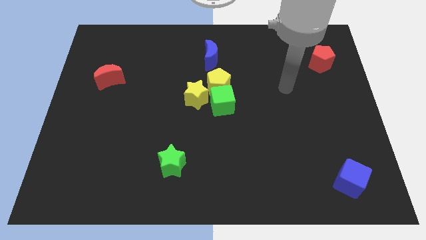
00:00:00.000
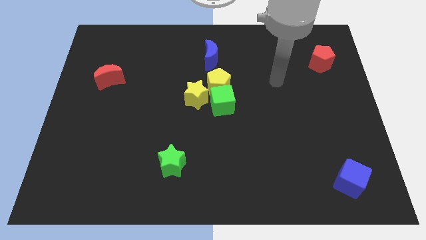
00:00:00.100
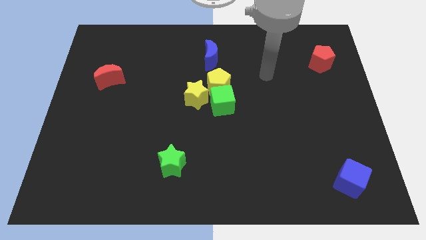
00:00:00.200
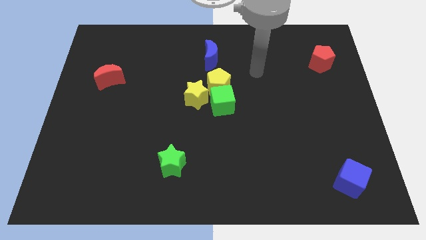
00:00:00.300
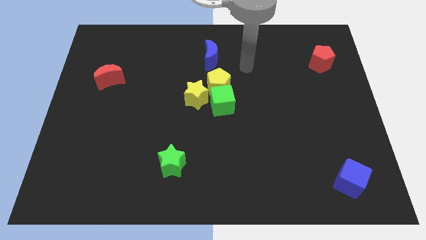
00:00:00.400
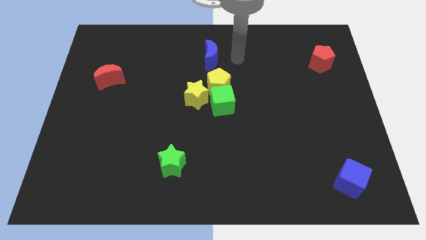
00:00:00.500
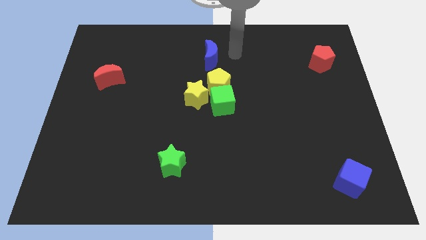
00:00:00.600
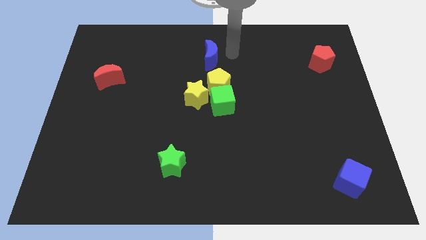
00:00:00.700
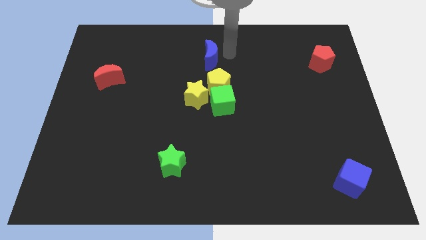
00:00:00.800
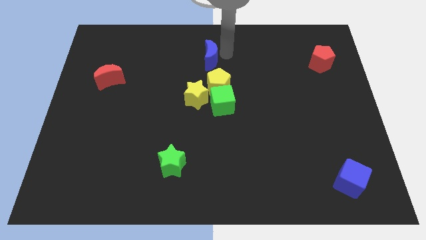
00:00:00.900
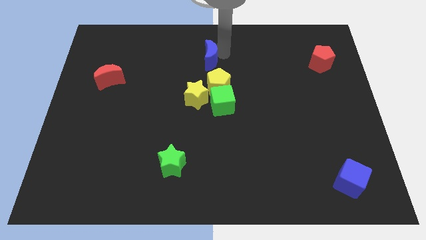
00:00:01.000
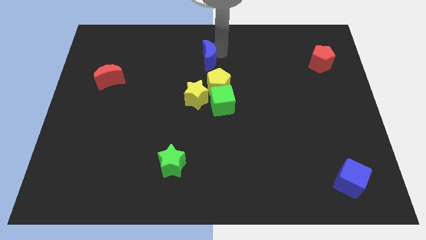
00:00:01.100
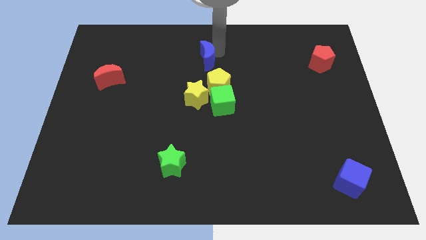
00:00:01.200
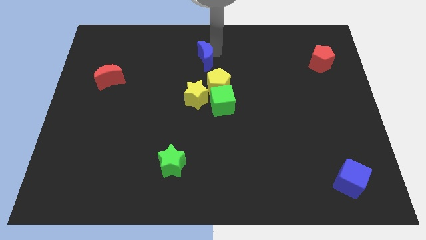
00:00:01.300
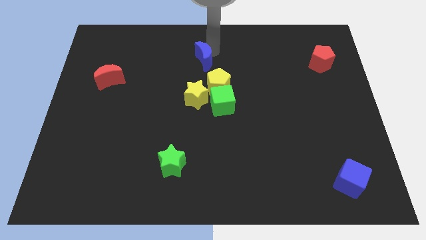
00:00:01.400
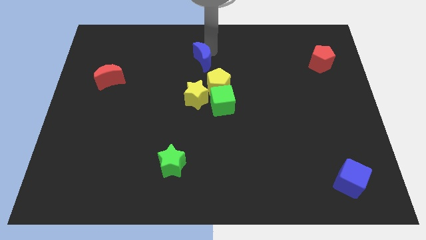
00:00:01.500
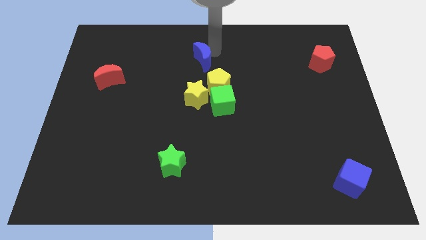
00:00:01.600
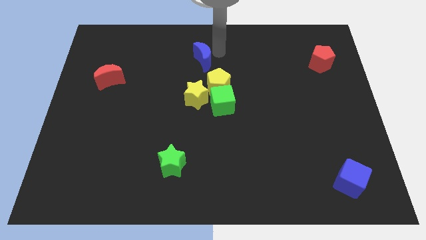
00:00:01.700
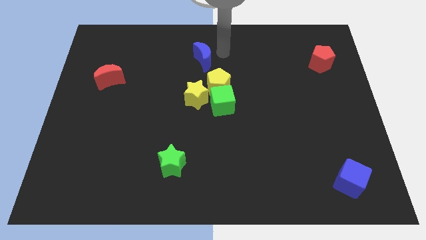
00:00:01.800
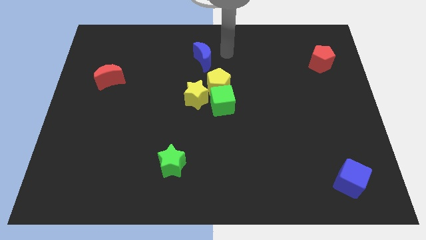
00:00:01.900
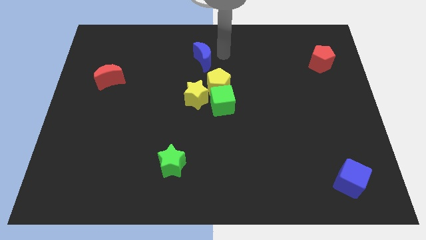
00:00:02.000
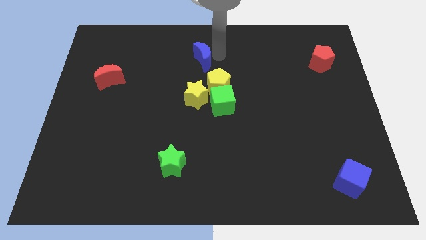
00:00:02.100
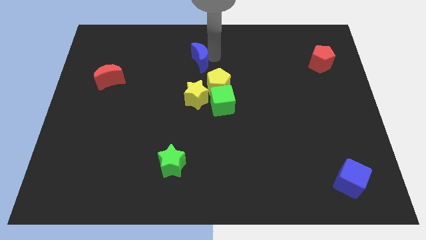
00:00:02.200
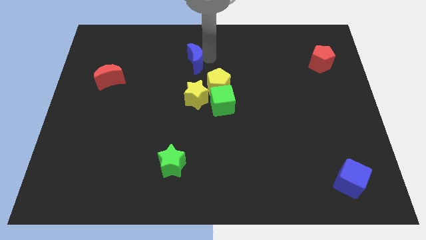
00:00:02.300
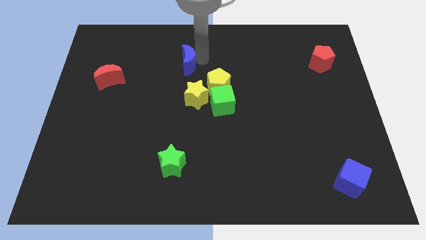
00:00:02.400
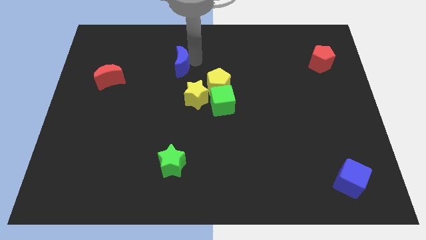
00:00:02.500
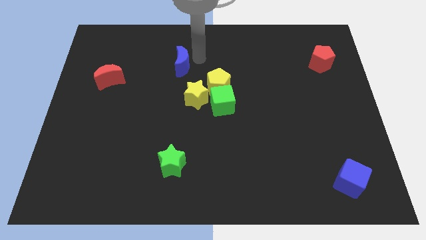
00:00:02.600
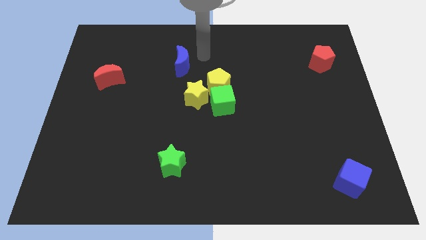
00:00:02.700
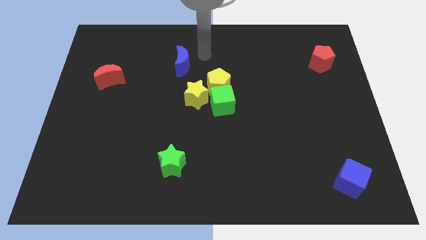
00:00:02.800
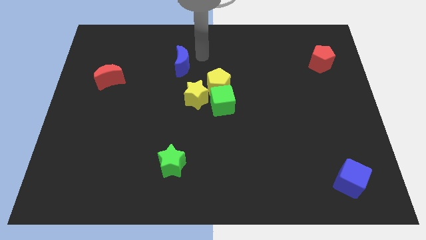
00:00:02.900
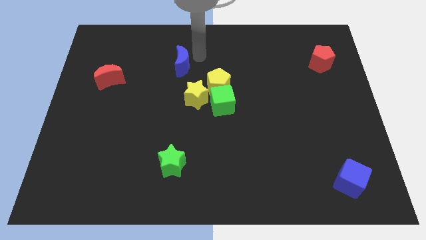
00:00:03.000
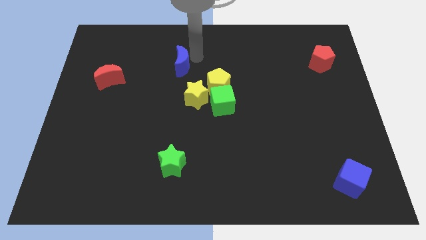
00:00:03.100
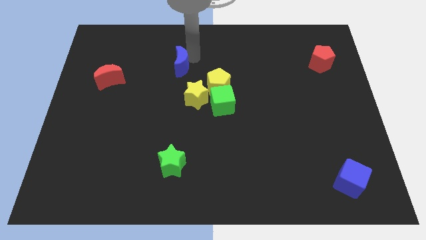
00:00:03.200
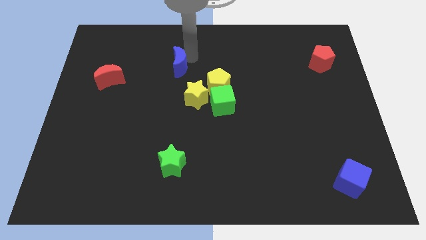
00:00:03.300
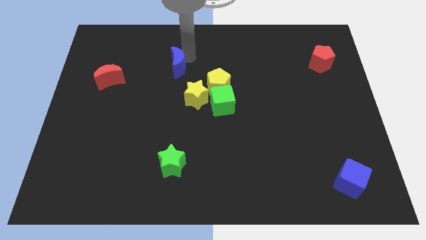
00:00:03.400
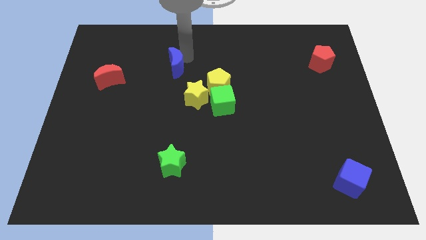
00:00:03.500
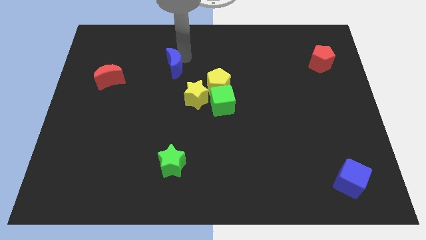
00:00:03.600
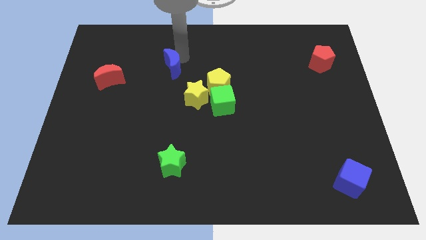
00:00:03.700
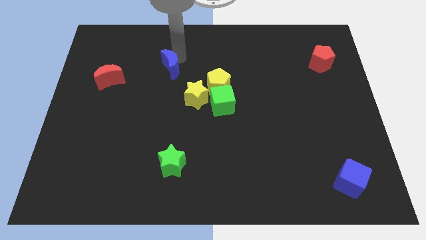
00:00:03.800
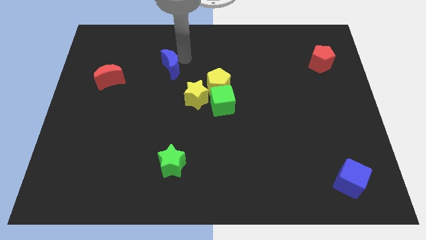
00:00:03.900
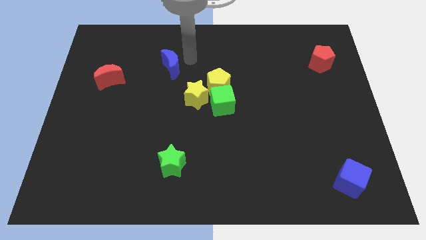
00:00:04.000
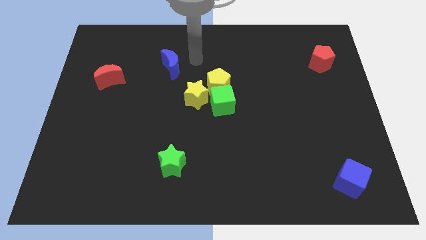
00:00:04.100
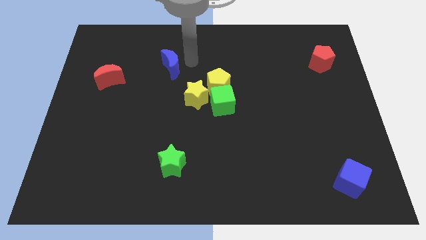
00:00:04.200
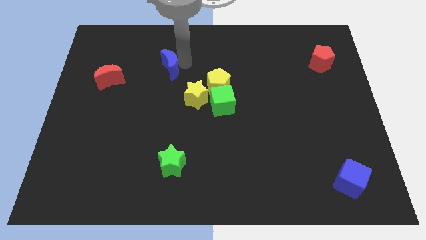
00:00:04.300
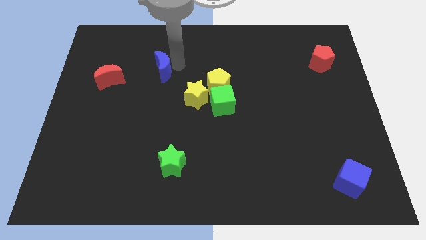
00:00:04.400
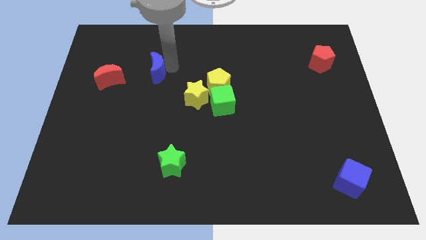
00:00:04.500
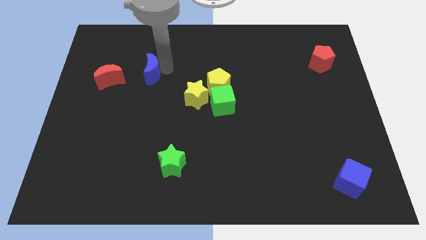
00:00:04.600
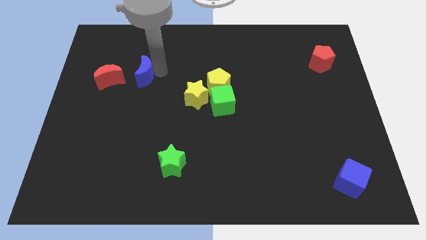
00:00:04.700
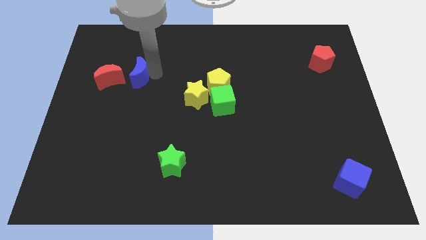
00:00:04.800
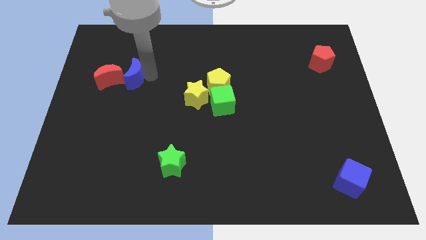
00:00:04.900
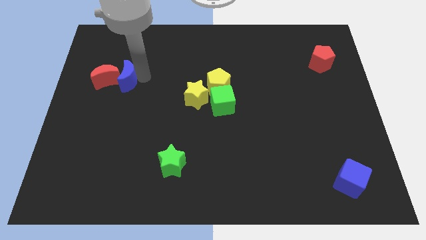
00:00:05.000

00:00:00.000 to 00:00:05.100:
slide the blue moon towards the red moon

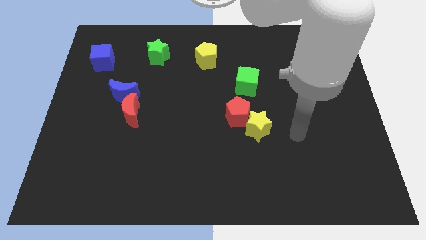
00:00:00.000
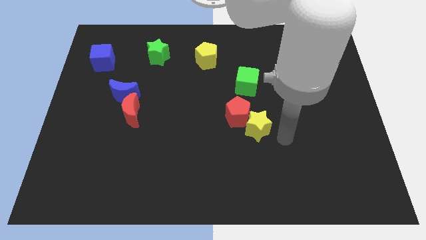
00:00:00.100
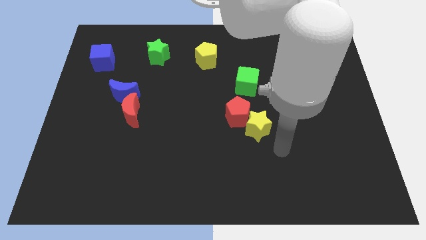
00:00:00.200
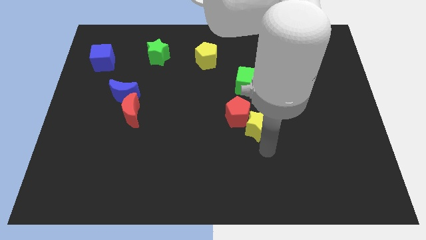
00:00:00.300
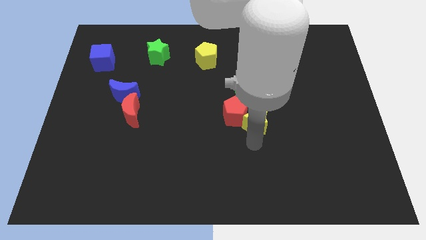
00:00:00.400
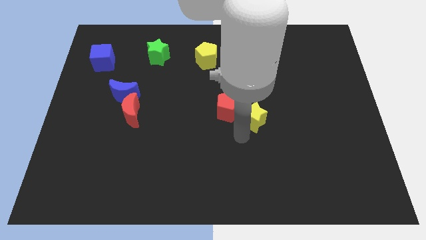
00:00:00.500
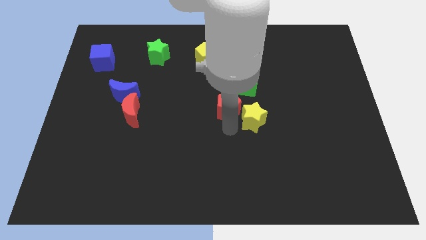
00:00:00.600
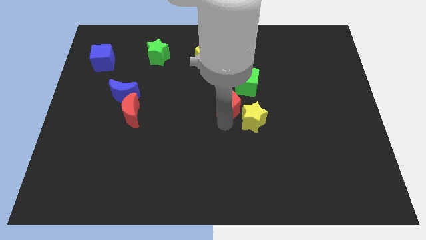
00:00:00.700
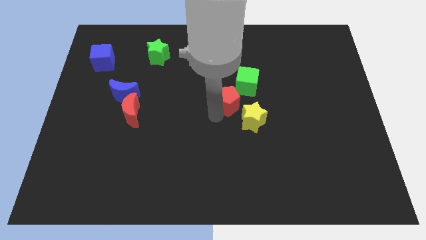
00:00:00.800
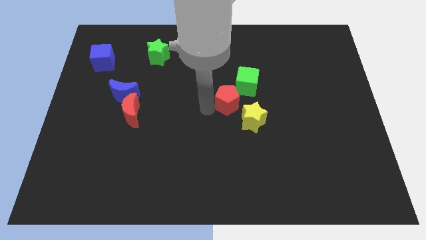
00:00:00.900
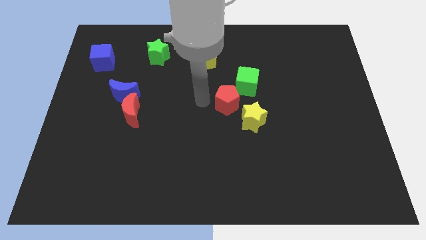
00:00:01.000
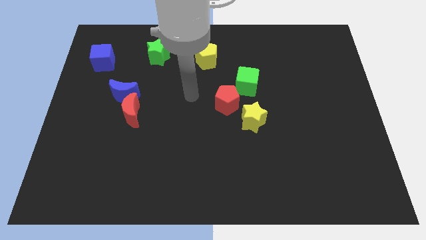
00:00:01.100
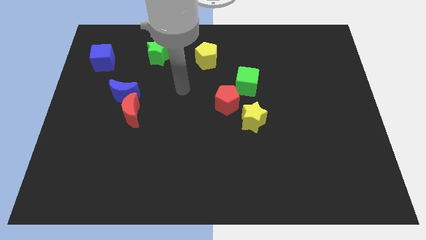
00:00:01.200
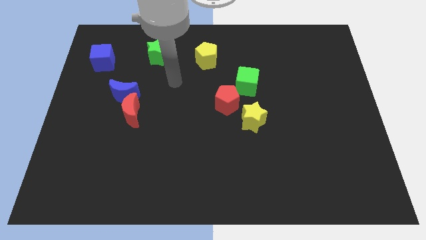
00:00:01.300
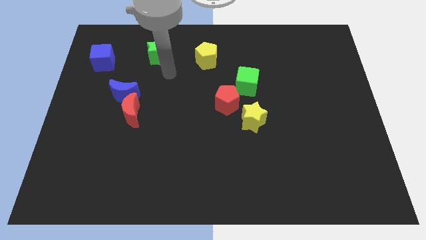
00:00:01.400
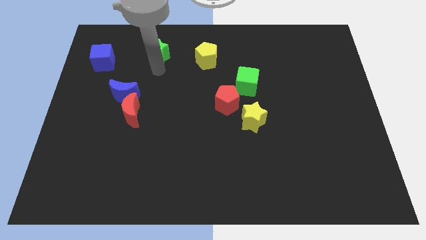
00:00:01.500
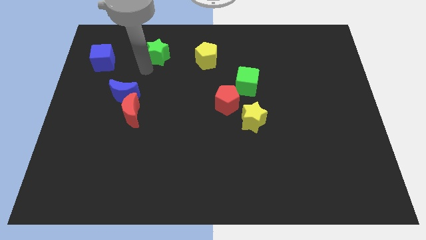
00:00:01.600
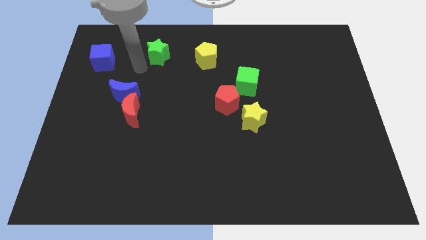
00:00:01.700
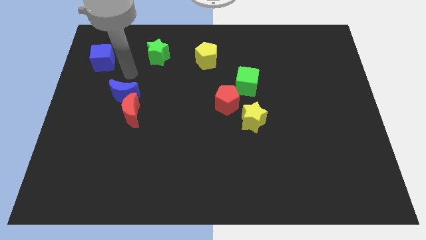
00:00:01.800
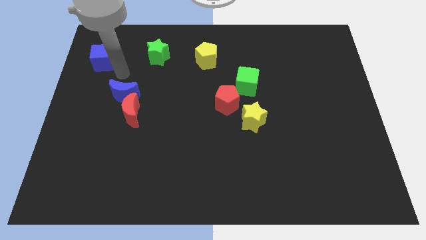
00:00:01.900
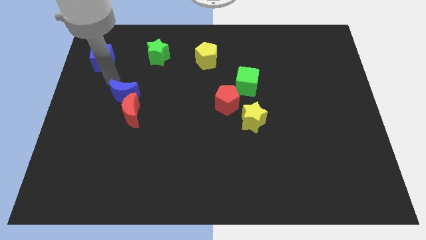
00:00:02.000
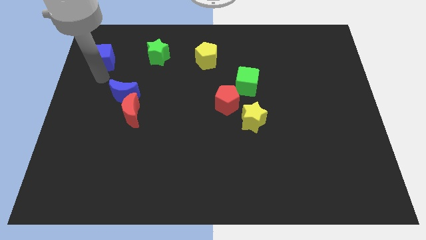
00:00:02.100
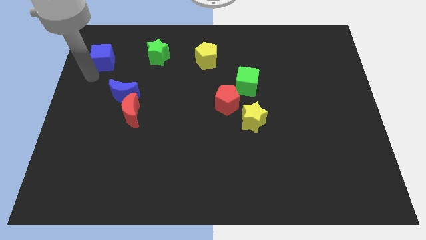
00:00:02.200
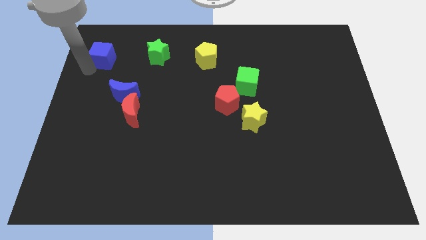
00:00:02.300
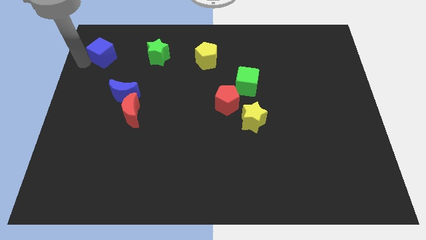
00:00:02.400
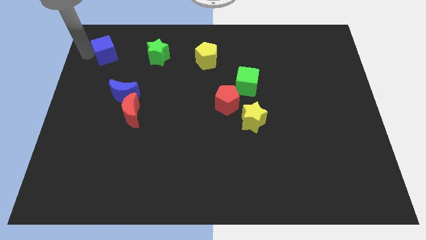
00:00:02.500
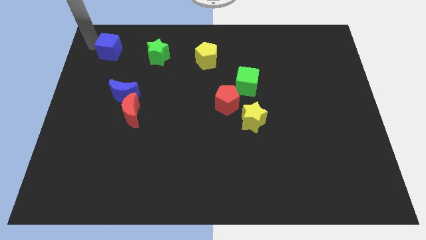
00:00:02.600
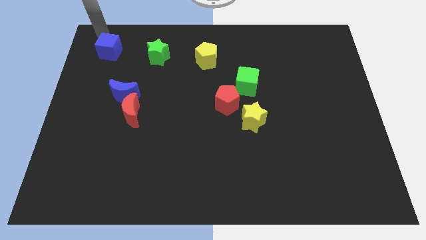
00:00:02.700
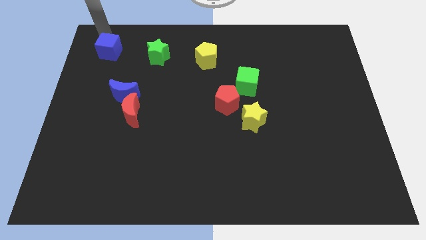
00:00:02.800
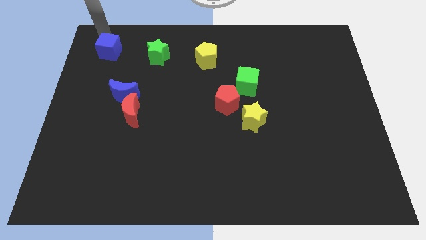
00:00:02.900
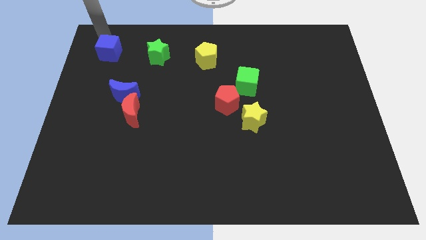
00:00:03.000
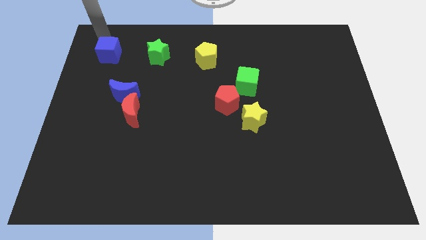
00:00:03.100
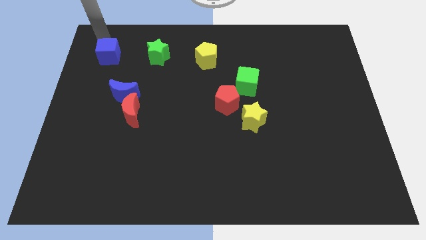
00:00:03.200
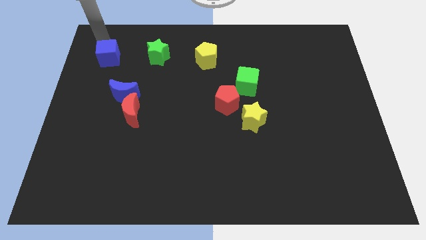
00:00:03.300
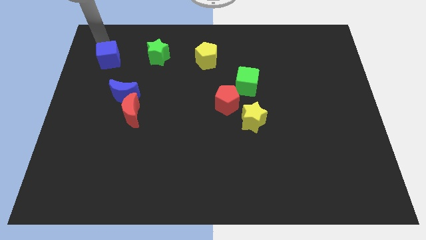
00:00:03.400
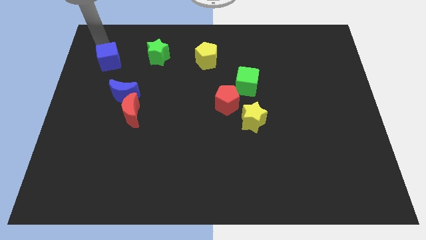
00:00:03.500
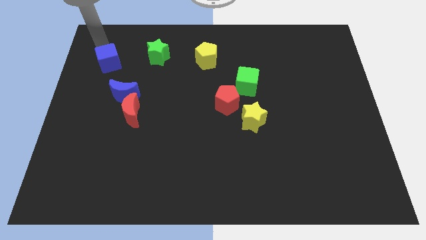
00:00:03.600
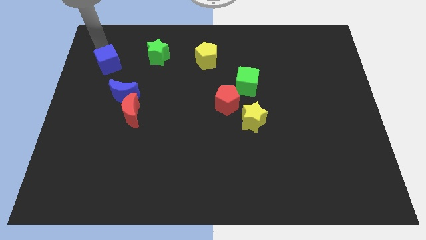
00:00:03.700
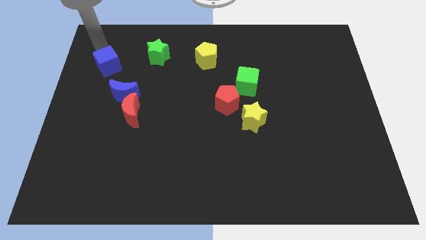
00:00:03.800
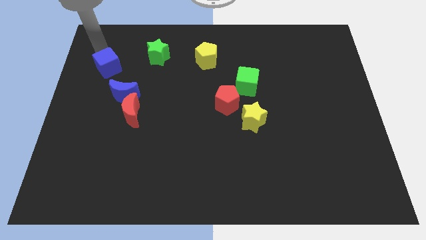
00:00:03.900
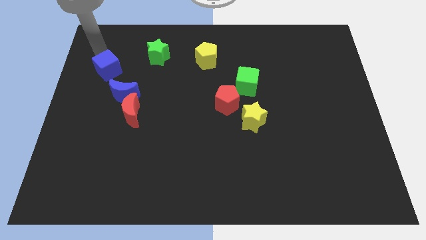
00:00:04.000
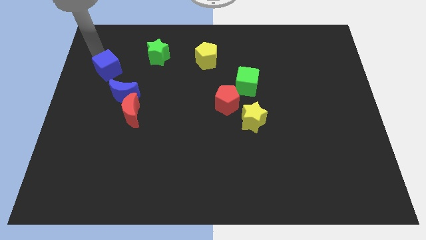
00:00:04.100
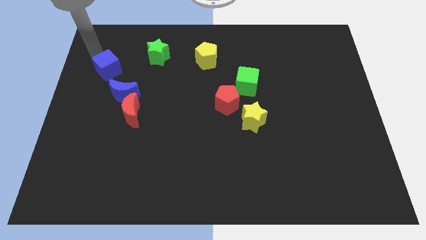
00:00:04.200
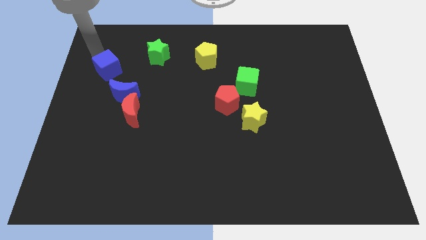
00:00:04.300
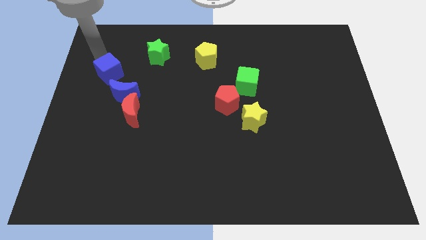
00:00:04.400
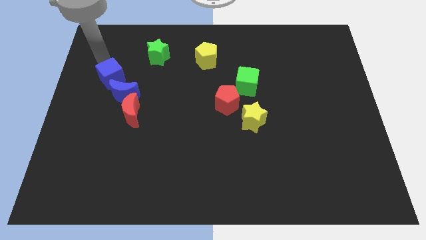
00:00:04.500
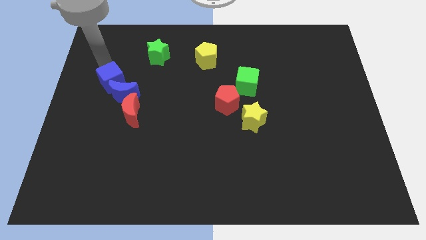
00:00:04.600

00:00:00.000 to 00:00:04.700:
put the blue cube next to the blue moon
